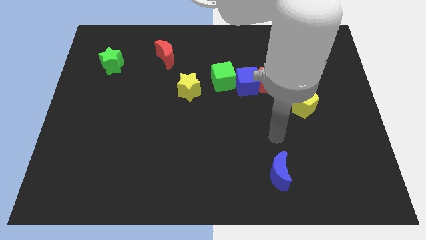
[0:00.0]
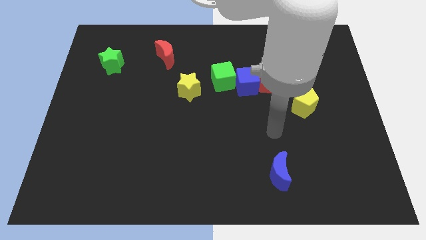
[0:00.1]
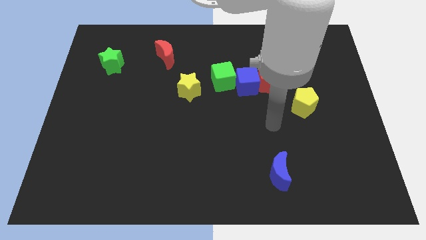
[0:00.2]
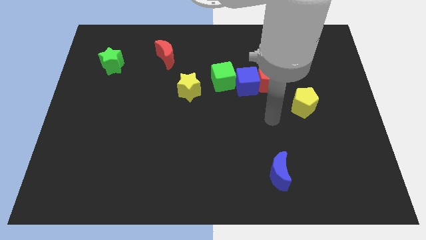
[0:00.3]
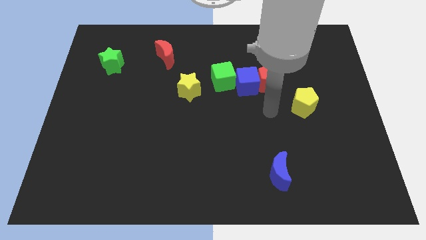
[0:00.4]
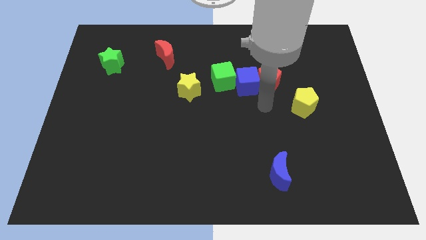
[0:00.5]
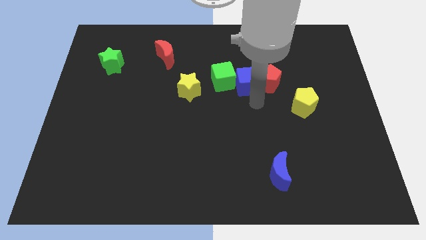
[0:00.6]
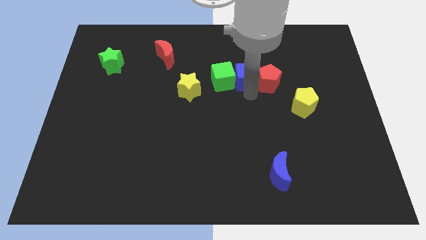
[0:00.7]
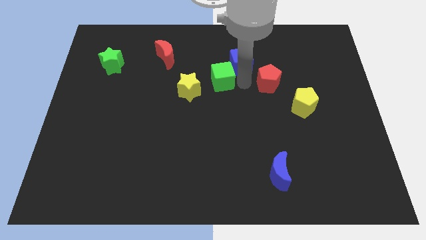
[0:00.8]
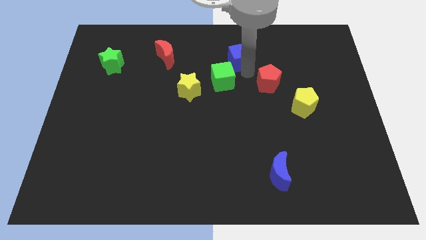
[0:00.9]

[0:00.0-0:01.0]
separate the red pentagon from the blue cube

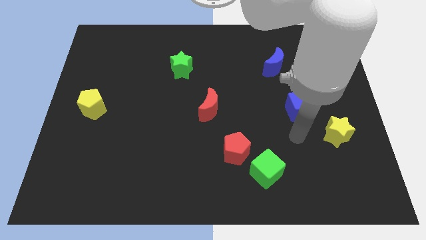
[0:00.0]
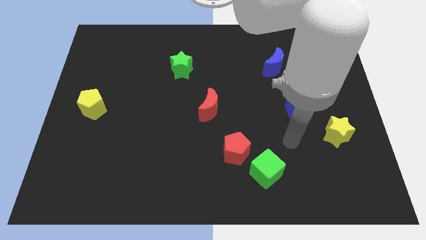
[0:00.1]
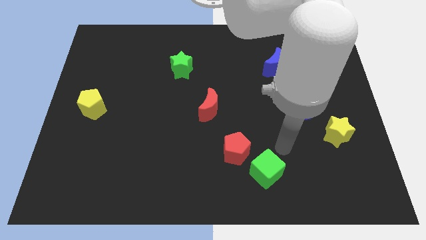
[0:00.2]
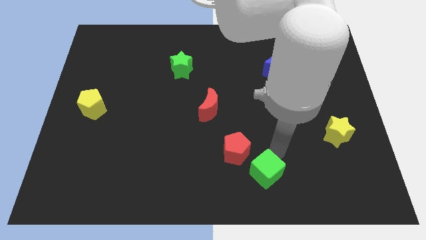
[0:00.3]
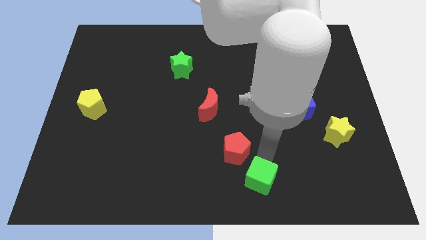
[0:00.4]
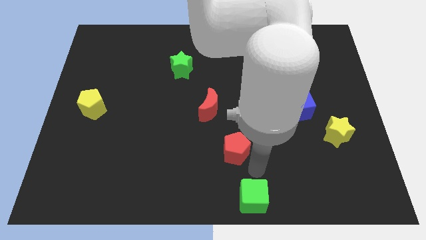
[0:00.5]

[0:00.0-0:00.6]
pull the red pentagon apart from the green cube

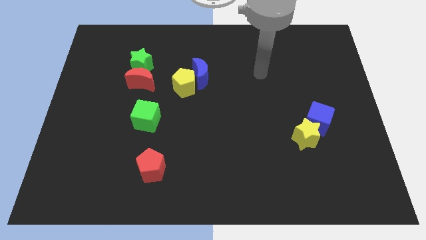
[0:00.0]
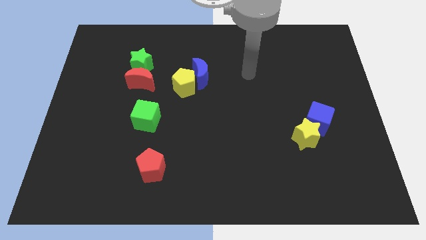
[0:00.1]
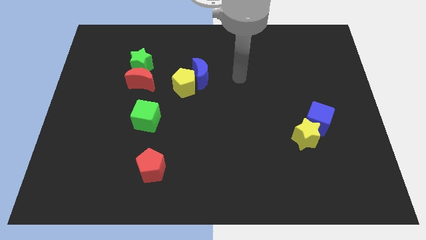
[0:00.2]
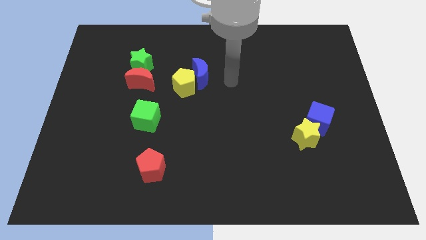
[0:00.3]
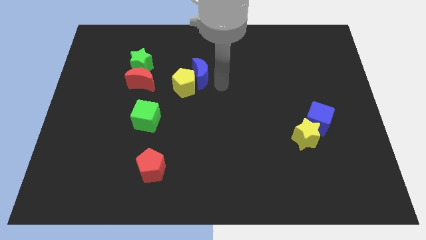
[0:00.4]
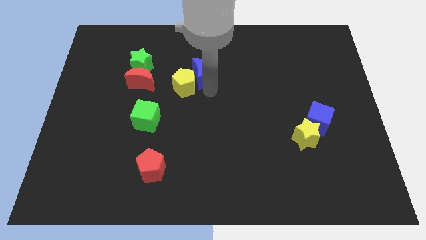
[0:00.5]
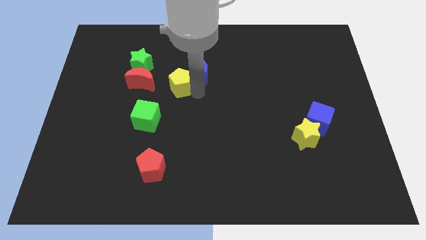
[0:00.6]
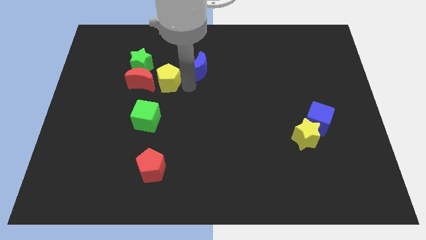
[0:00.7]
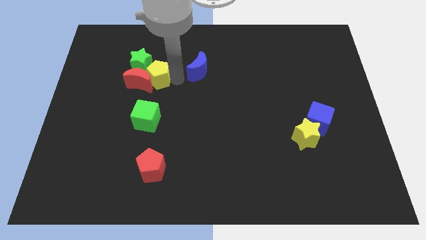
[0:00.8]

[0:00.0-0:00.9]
separate the blue moon from the yellow pentagon

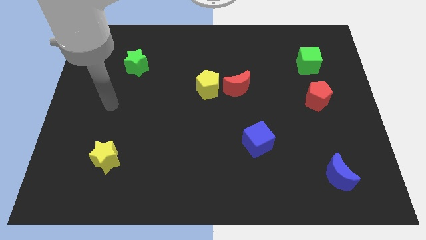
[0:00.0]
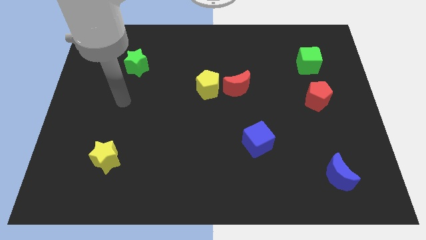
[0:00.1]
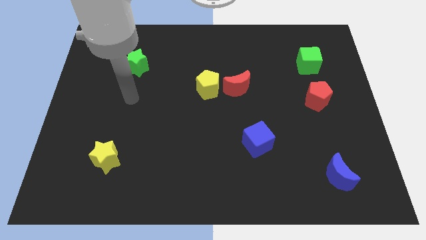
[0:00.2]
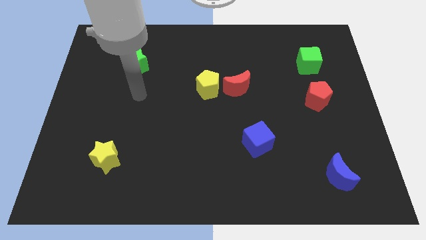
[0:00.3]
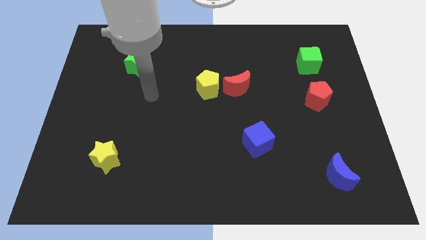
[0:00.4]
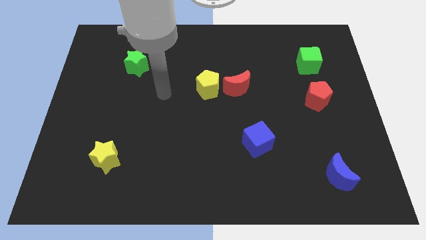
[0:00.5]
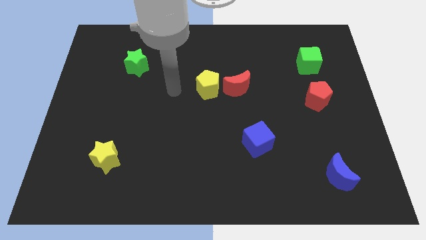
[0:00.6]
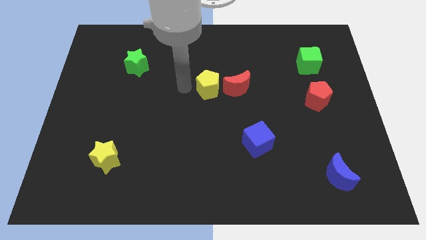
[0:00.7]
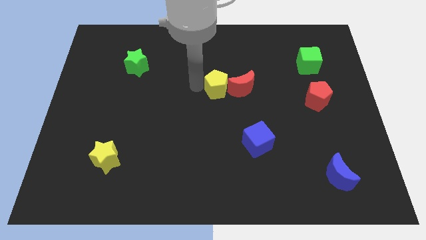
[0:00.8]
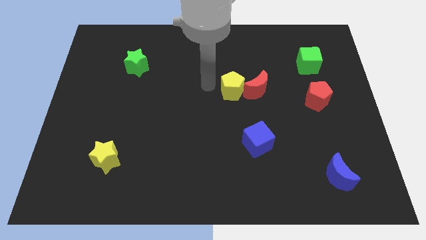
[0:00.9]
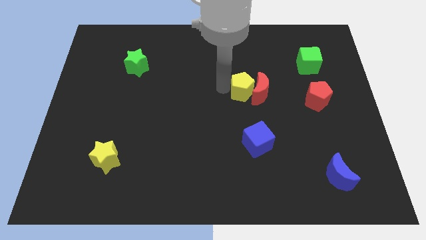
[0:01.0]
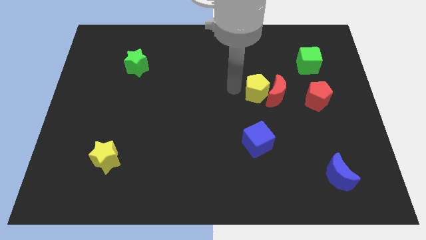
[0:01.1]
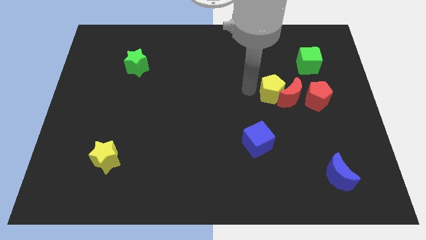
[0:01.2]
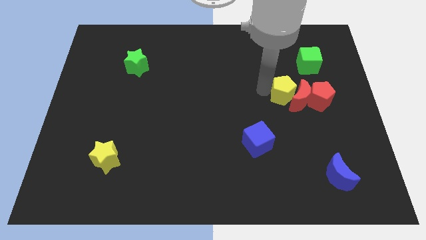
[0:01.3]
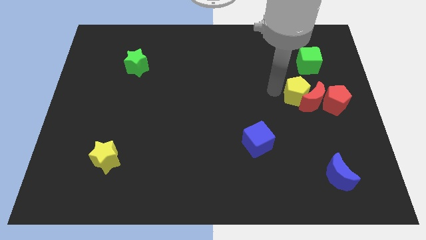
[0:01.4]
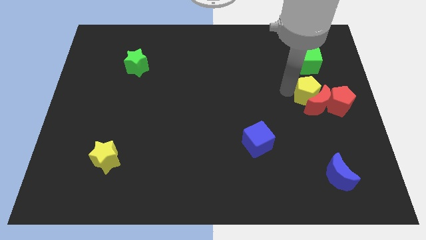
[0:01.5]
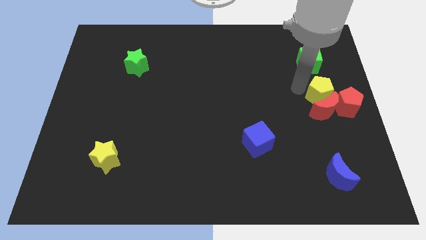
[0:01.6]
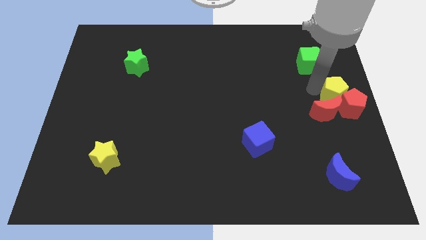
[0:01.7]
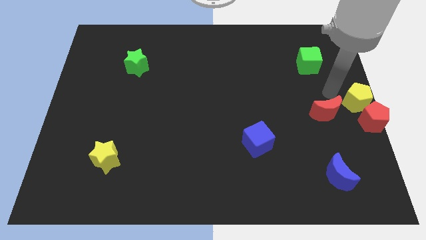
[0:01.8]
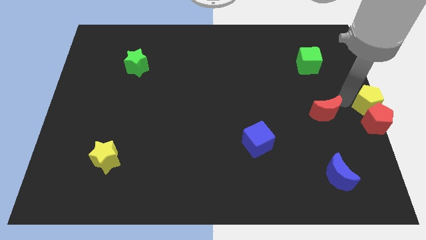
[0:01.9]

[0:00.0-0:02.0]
pull the red moon apart from the yellow pentagon

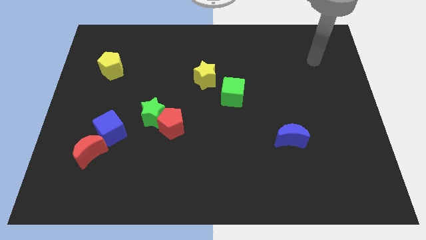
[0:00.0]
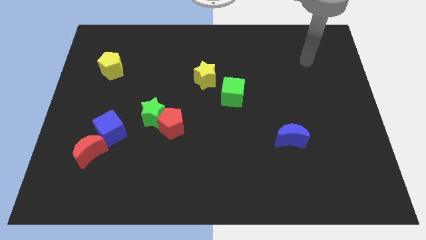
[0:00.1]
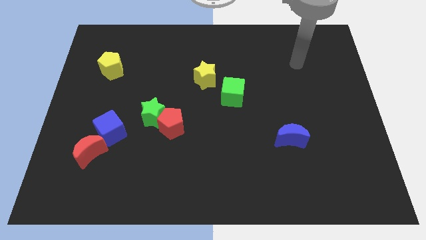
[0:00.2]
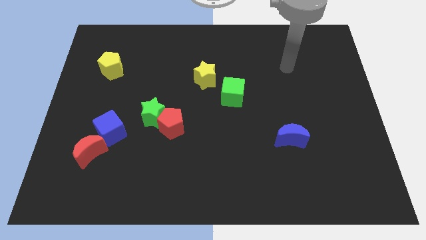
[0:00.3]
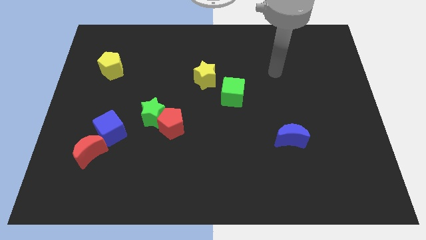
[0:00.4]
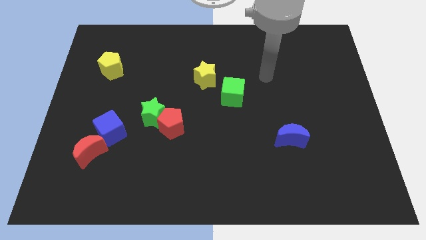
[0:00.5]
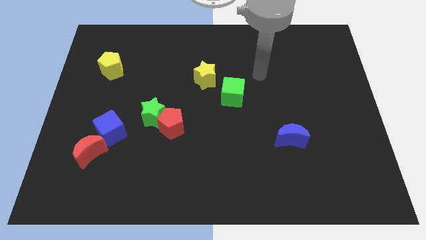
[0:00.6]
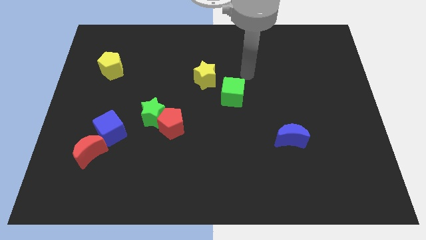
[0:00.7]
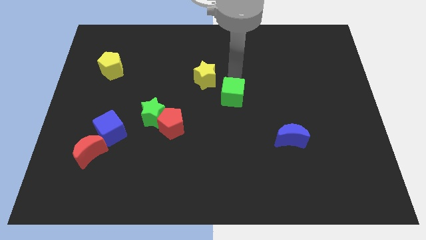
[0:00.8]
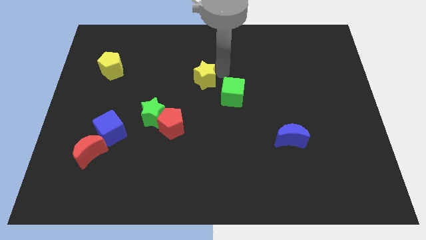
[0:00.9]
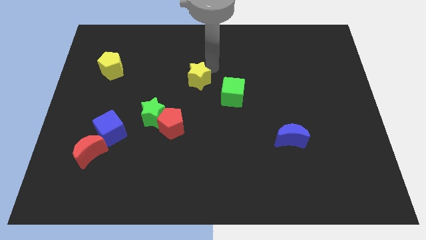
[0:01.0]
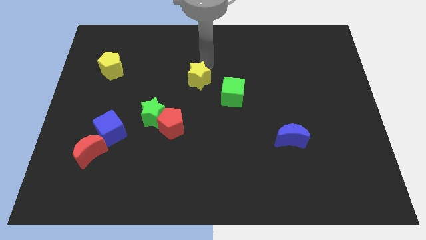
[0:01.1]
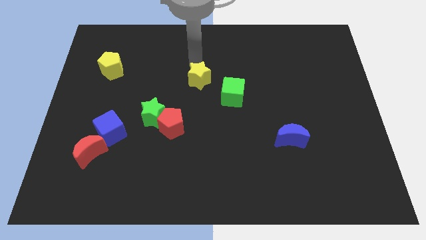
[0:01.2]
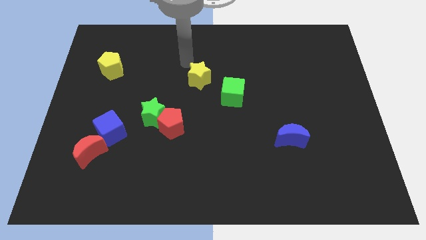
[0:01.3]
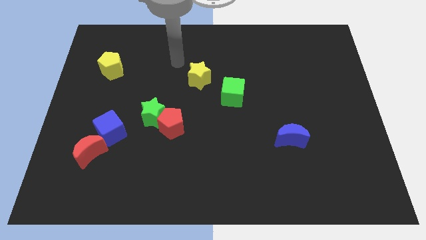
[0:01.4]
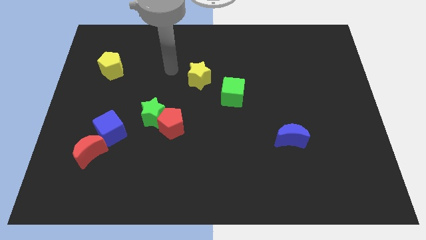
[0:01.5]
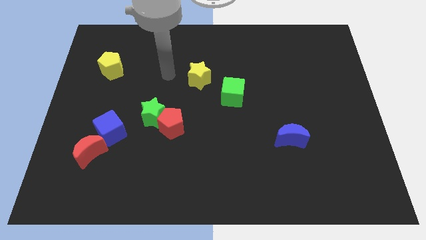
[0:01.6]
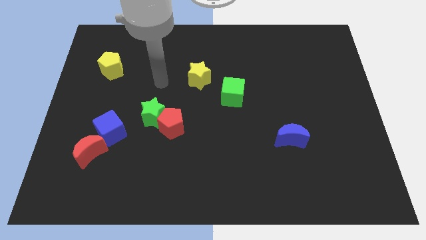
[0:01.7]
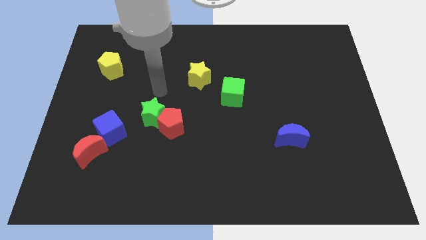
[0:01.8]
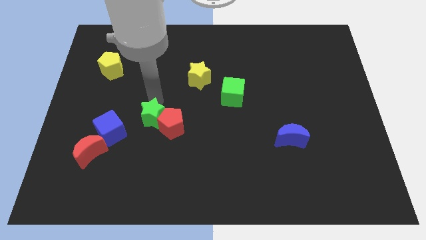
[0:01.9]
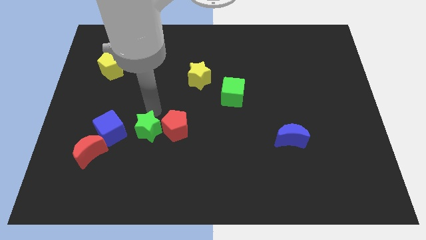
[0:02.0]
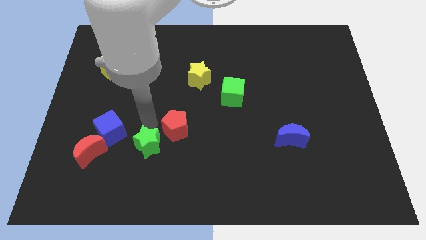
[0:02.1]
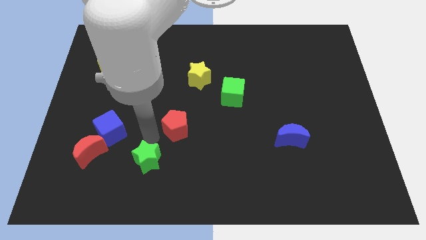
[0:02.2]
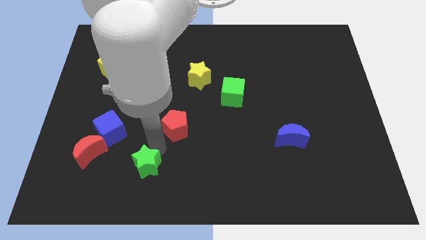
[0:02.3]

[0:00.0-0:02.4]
move the red pentagon away from the green star

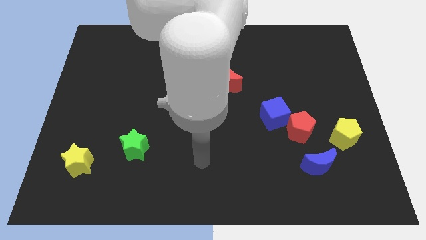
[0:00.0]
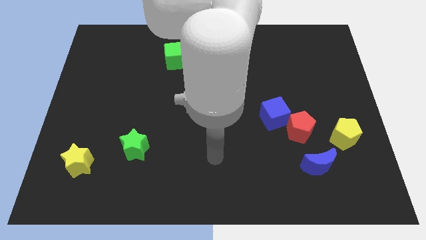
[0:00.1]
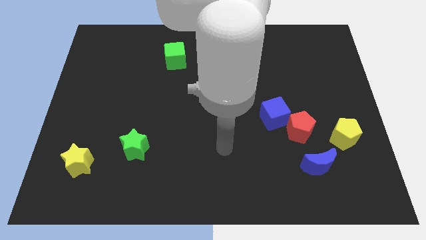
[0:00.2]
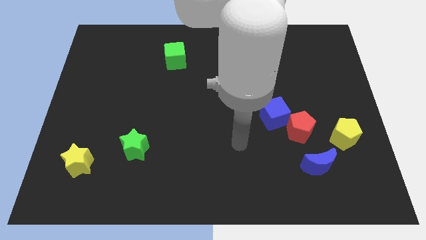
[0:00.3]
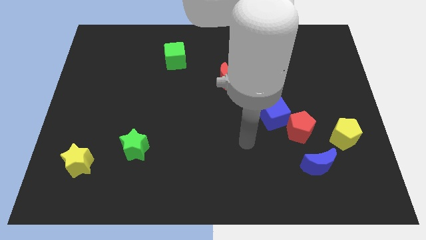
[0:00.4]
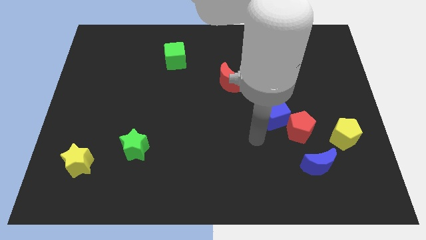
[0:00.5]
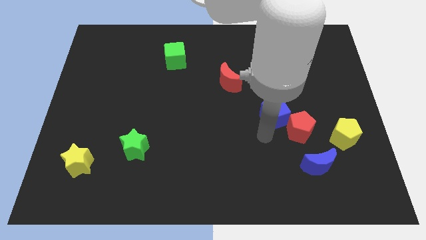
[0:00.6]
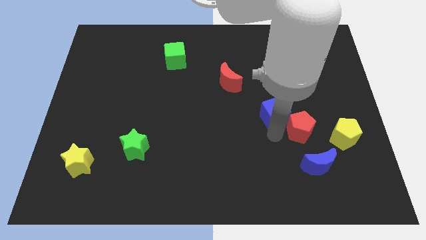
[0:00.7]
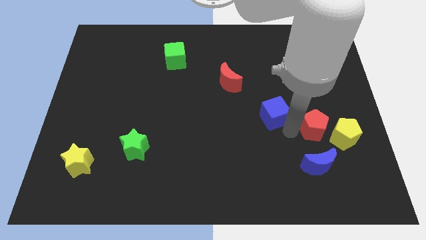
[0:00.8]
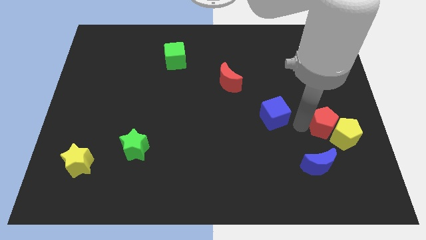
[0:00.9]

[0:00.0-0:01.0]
separate the blue cube from the red pentagon

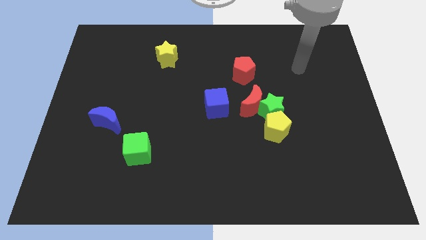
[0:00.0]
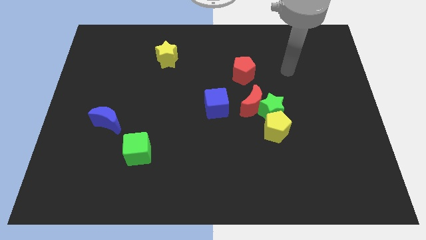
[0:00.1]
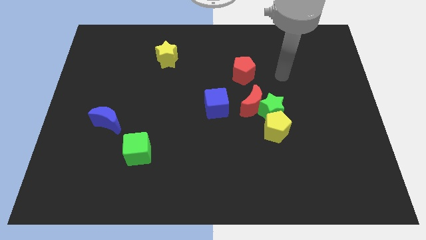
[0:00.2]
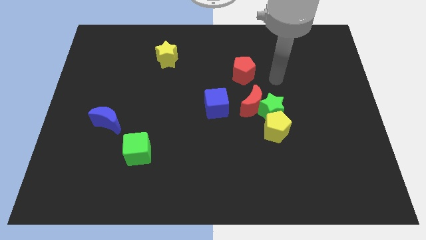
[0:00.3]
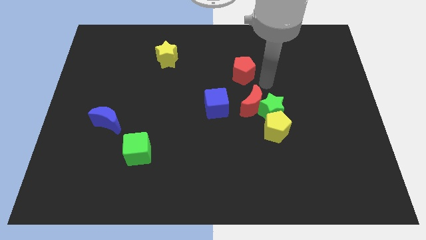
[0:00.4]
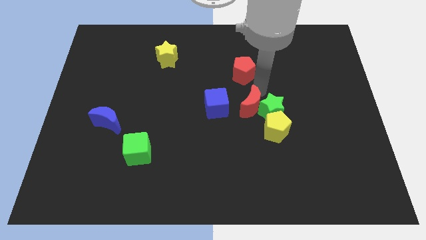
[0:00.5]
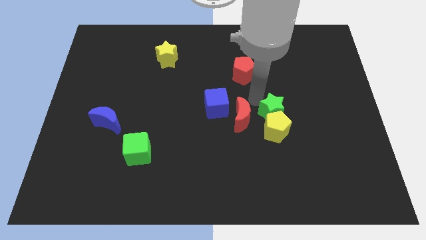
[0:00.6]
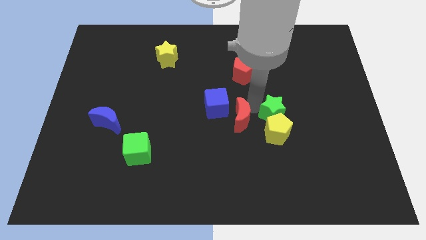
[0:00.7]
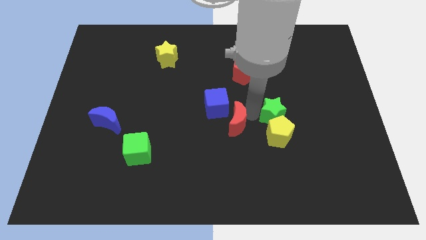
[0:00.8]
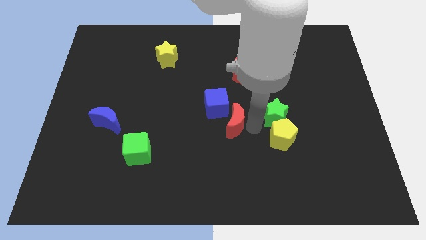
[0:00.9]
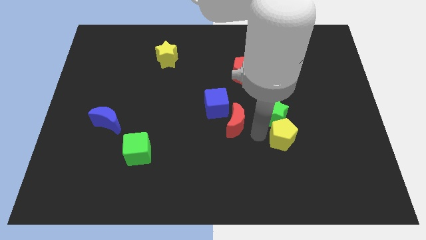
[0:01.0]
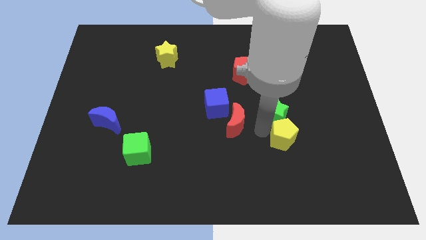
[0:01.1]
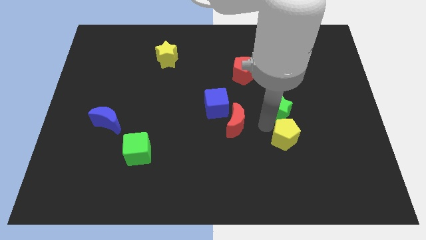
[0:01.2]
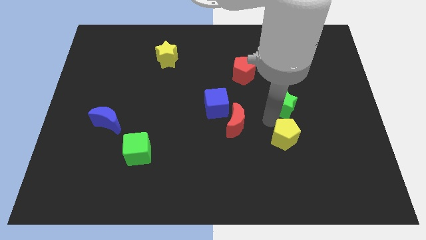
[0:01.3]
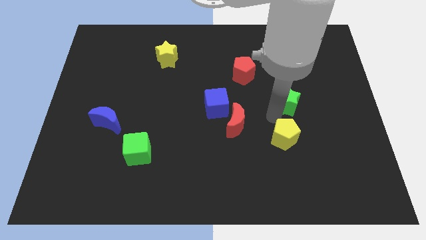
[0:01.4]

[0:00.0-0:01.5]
move the green star away from the red moon and yellow pentagon
